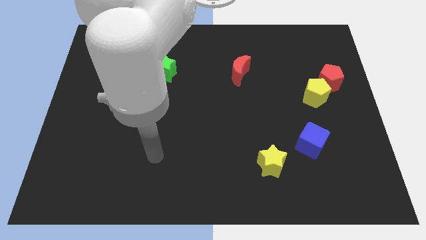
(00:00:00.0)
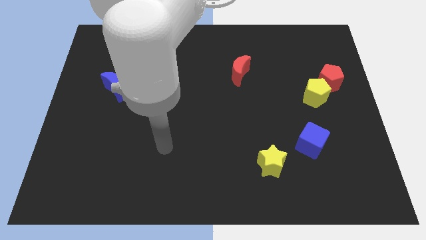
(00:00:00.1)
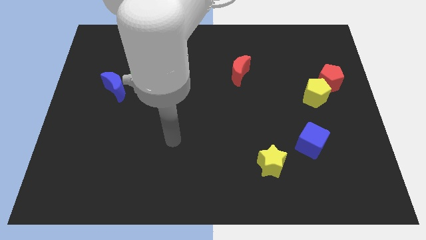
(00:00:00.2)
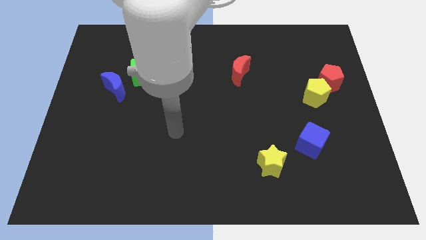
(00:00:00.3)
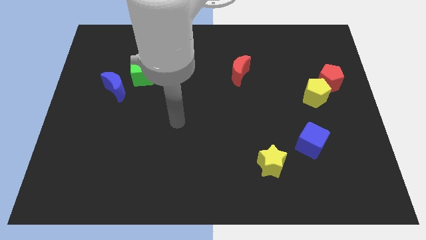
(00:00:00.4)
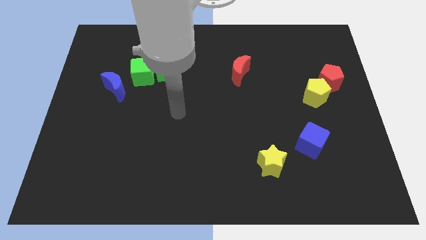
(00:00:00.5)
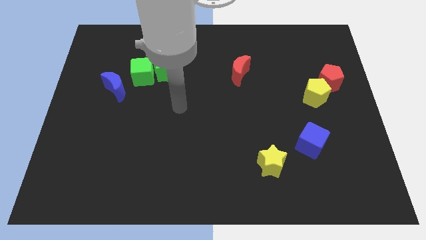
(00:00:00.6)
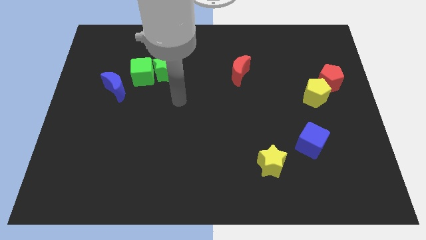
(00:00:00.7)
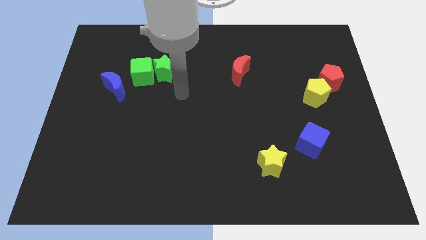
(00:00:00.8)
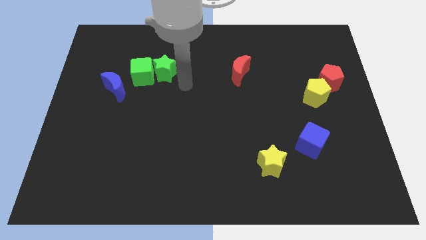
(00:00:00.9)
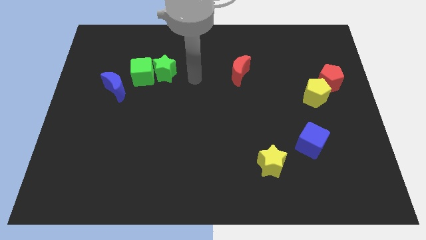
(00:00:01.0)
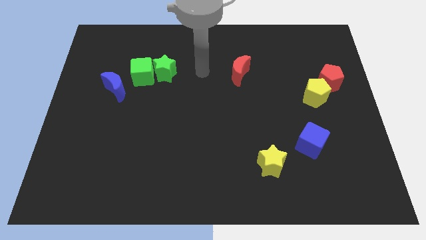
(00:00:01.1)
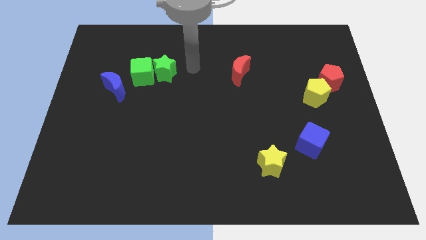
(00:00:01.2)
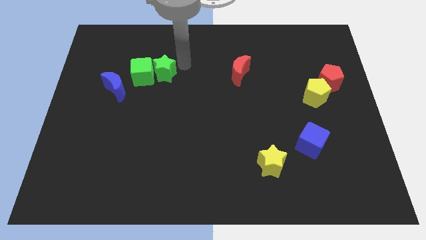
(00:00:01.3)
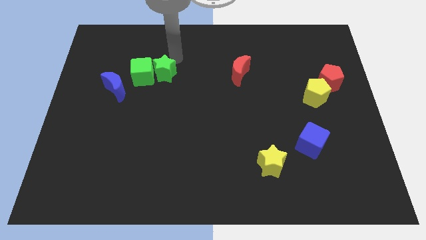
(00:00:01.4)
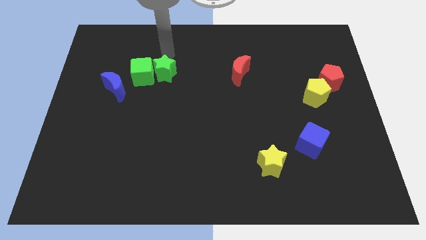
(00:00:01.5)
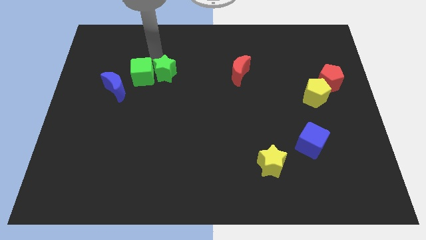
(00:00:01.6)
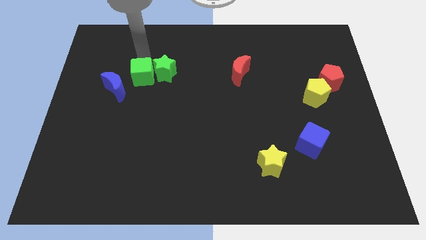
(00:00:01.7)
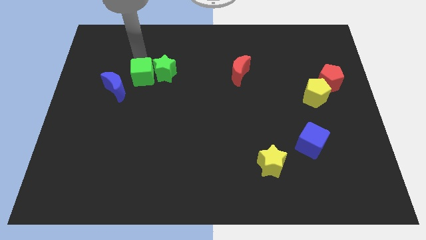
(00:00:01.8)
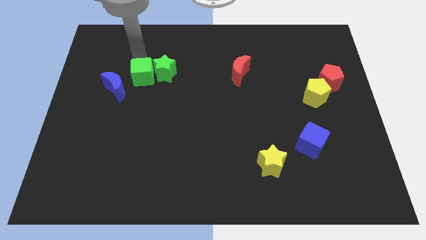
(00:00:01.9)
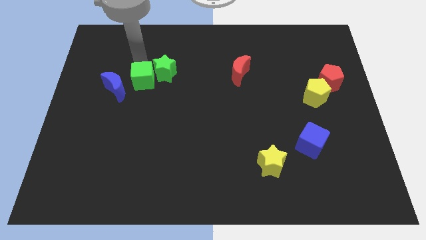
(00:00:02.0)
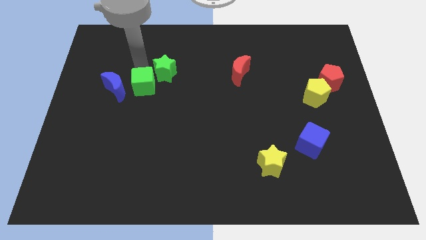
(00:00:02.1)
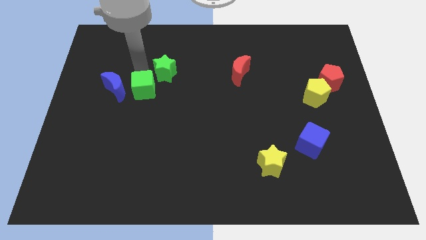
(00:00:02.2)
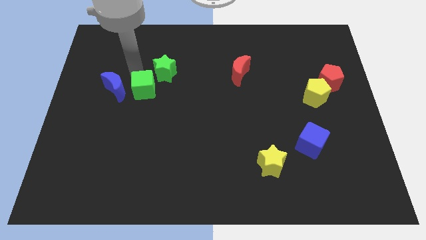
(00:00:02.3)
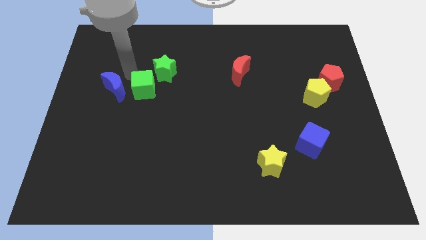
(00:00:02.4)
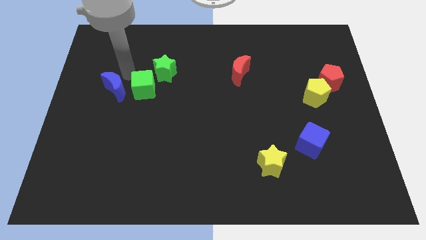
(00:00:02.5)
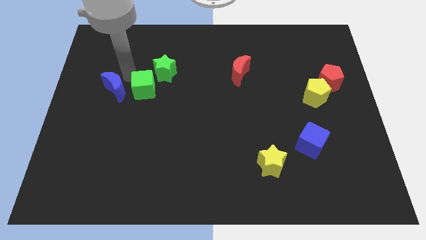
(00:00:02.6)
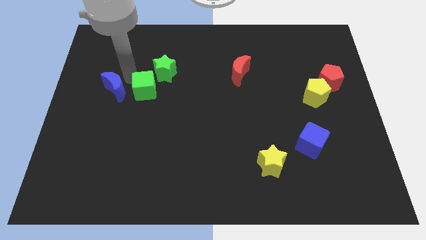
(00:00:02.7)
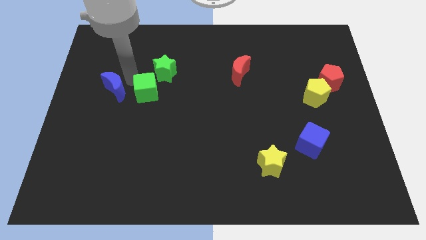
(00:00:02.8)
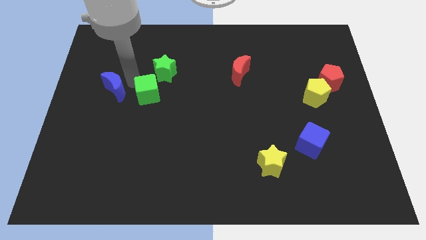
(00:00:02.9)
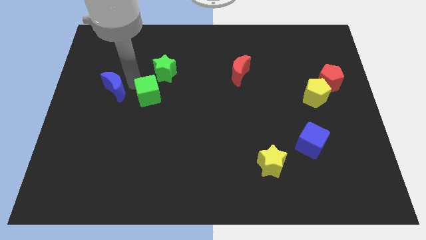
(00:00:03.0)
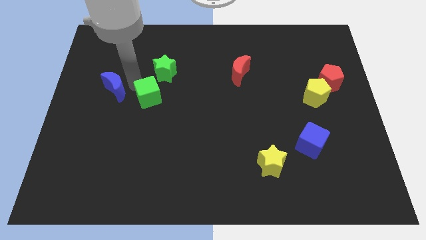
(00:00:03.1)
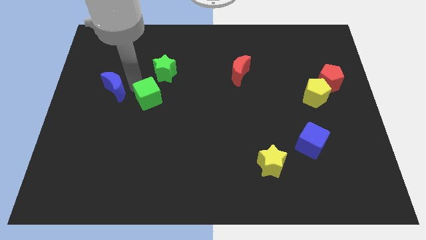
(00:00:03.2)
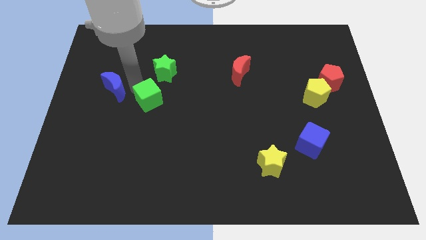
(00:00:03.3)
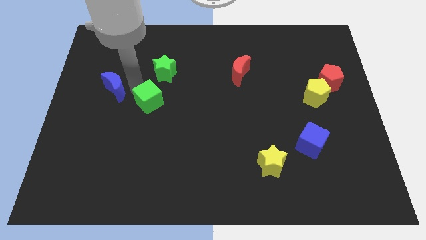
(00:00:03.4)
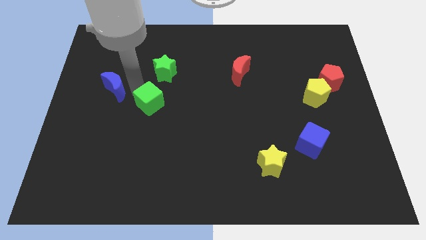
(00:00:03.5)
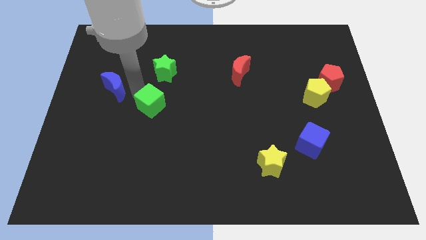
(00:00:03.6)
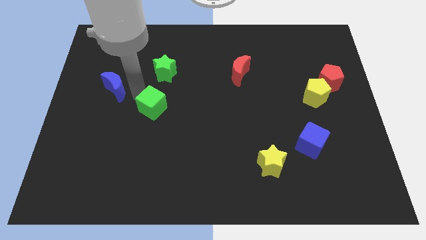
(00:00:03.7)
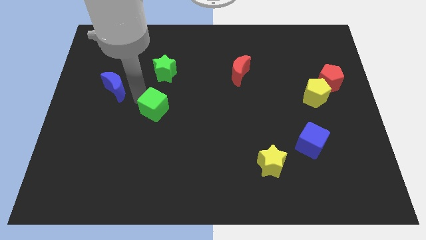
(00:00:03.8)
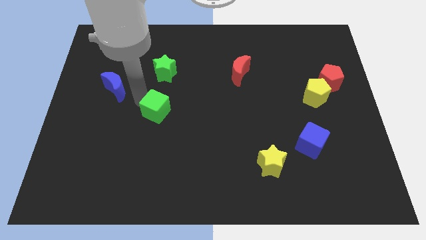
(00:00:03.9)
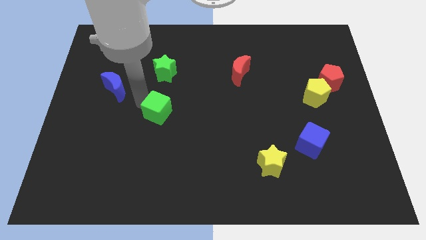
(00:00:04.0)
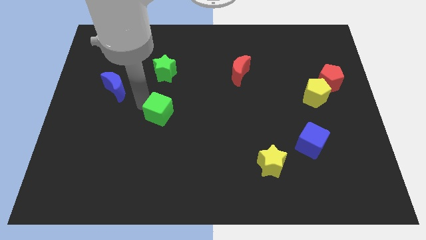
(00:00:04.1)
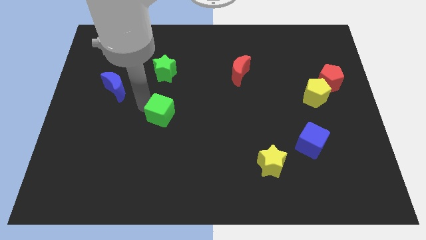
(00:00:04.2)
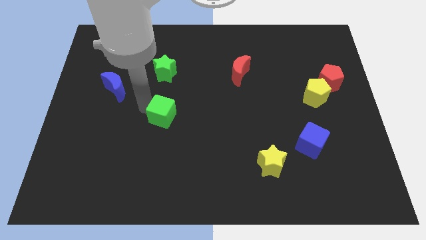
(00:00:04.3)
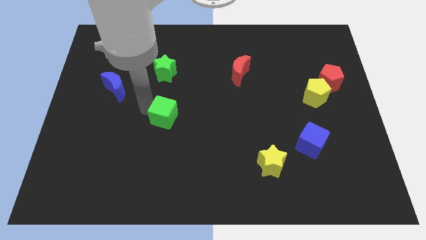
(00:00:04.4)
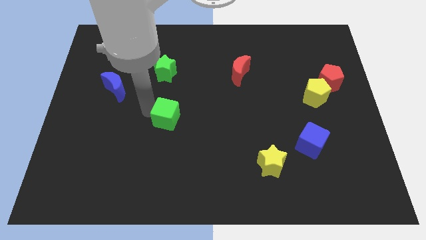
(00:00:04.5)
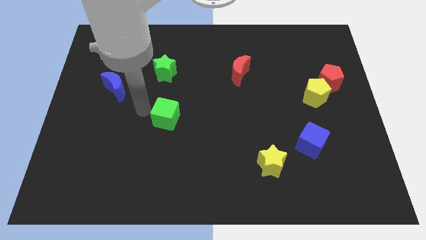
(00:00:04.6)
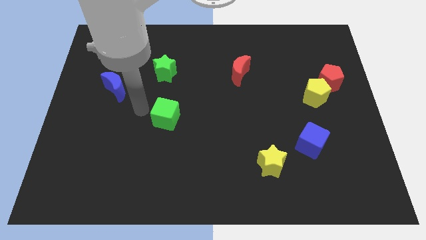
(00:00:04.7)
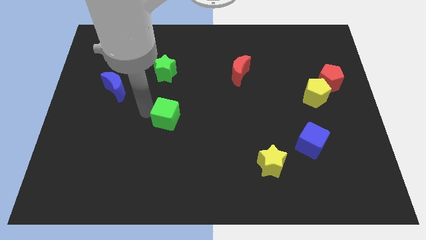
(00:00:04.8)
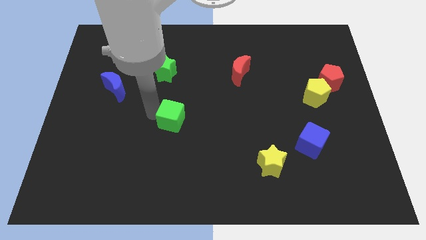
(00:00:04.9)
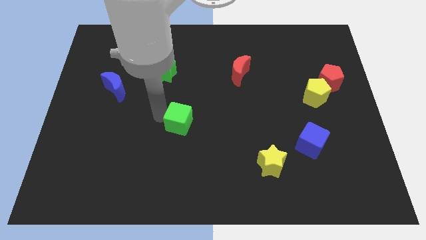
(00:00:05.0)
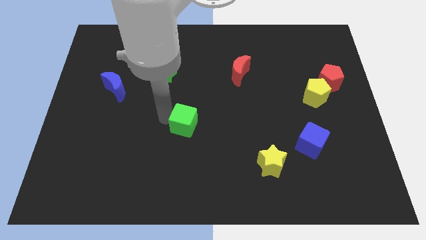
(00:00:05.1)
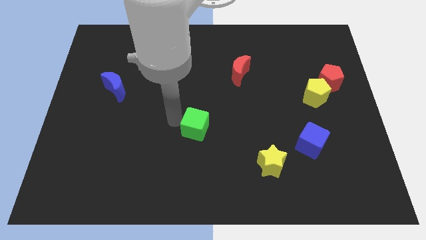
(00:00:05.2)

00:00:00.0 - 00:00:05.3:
move the green cube down and to the right diagonally

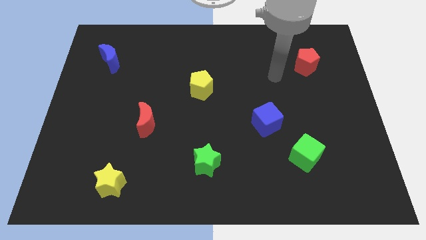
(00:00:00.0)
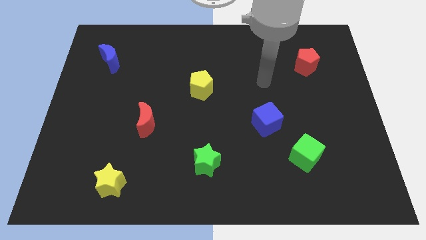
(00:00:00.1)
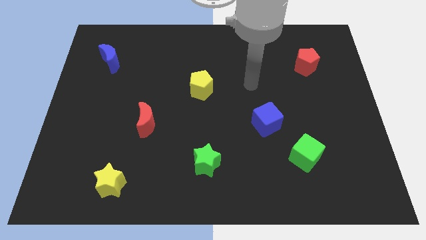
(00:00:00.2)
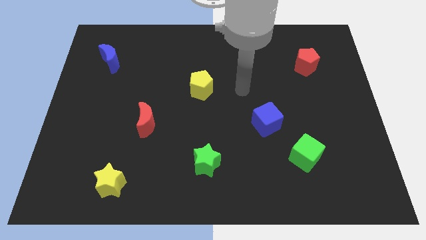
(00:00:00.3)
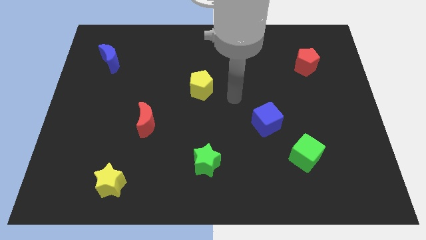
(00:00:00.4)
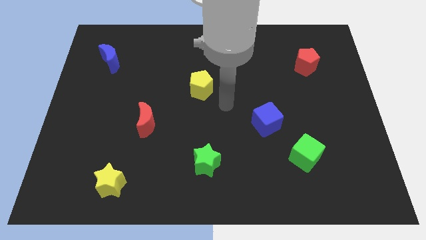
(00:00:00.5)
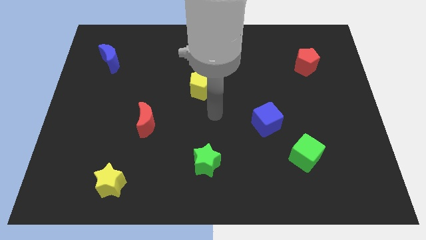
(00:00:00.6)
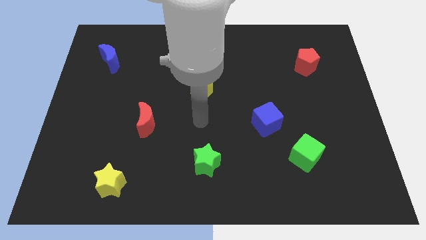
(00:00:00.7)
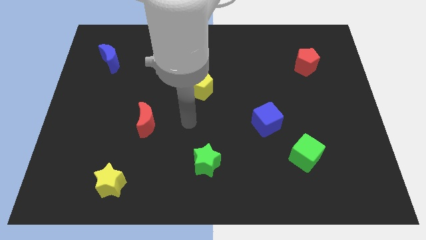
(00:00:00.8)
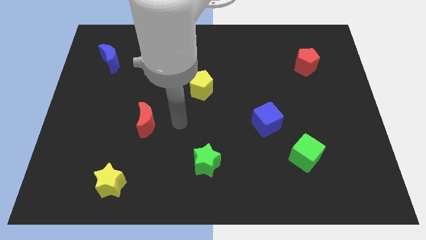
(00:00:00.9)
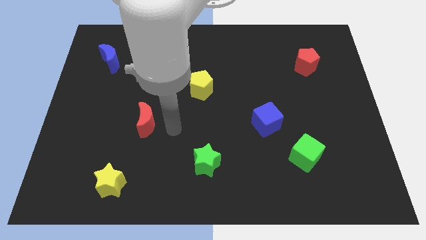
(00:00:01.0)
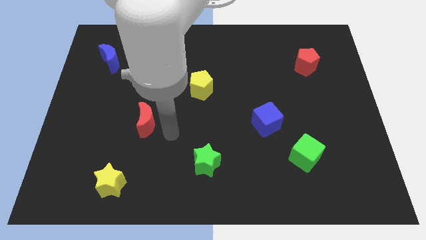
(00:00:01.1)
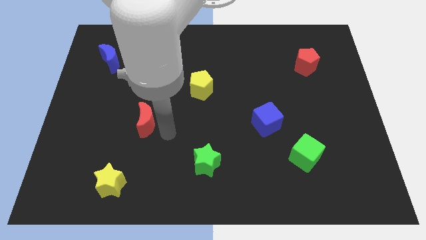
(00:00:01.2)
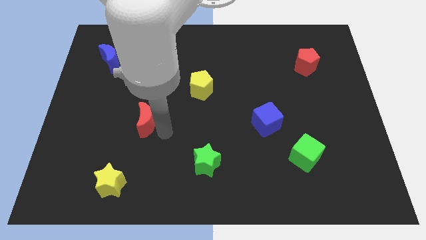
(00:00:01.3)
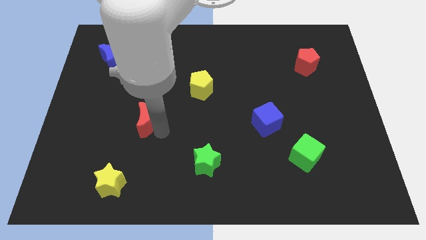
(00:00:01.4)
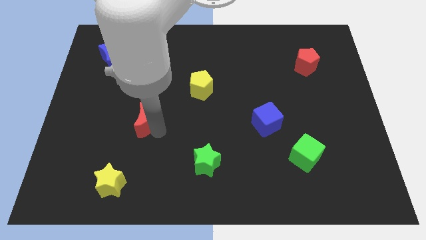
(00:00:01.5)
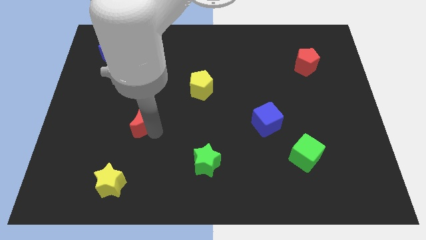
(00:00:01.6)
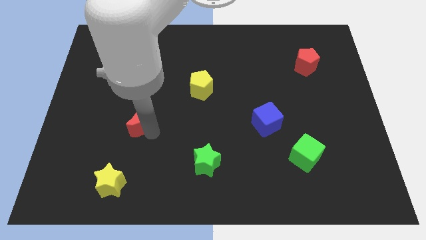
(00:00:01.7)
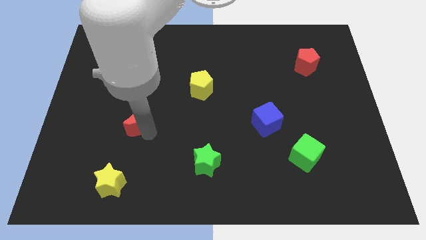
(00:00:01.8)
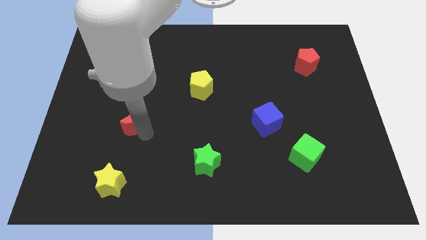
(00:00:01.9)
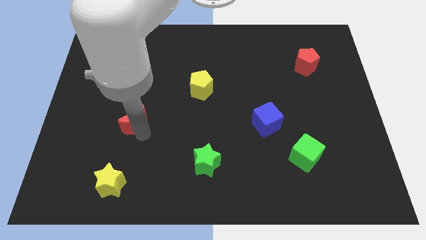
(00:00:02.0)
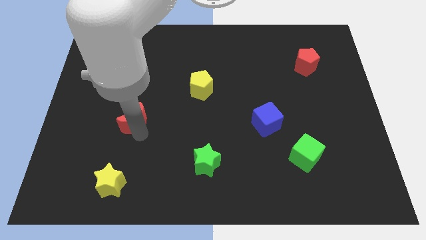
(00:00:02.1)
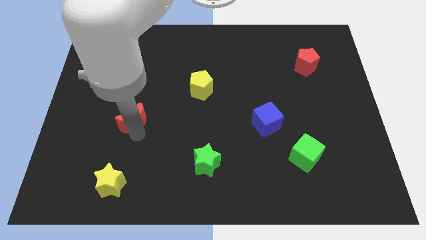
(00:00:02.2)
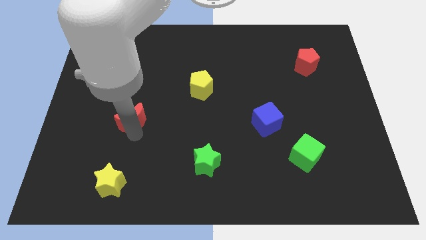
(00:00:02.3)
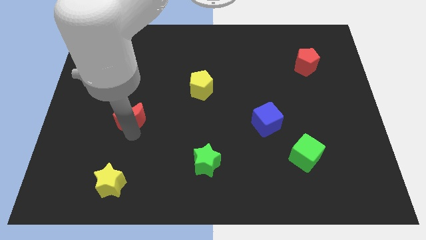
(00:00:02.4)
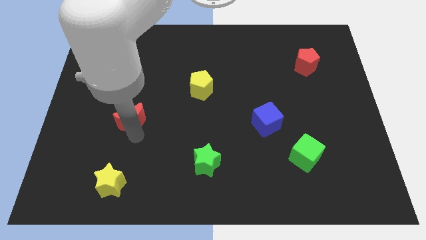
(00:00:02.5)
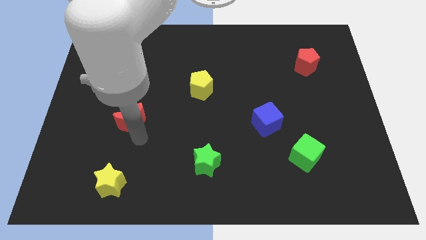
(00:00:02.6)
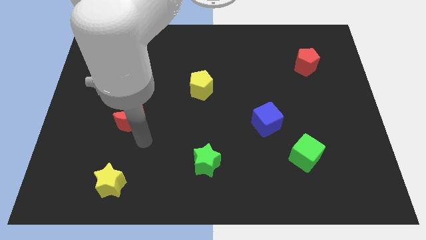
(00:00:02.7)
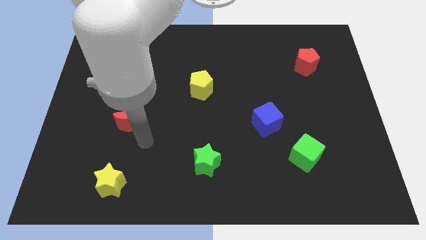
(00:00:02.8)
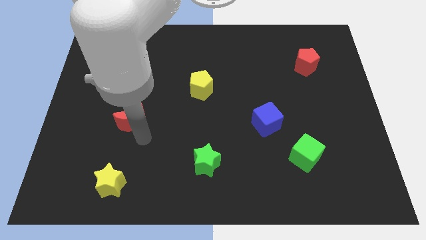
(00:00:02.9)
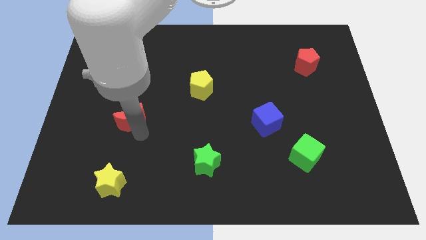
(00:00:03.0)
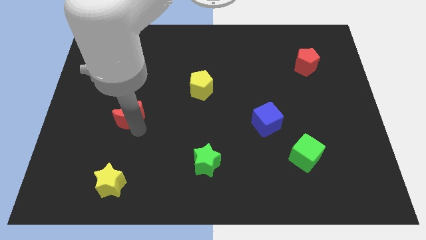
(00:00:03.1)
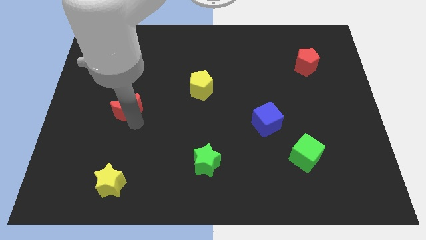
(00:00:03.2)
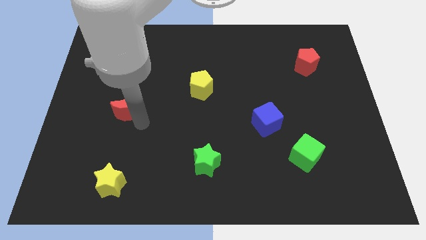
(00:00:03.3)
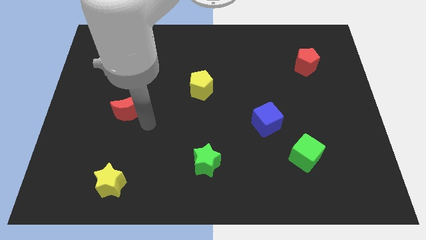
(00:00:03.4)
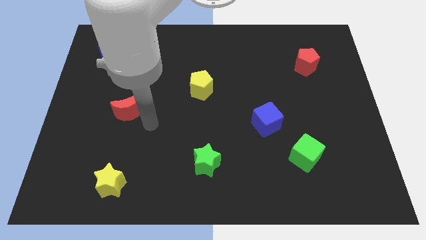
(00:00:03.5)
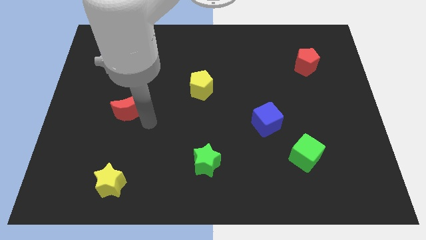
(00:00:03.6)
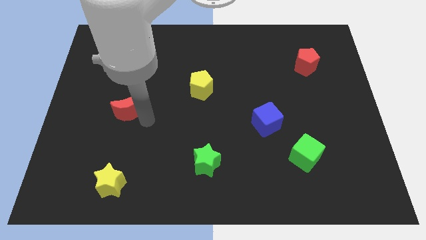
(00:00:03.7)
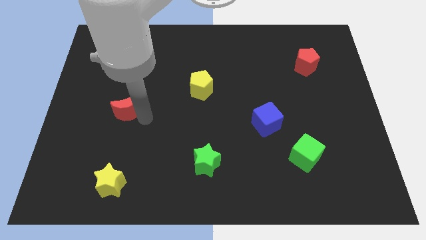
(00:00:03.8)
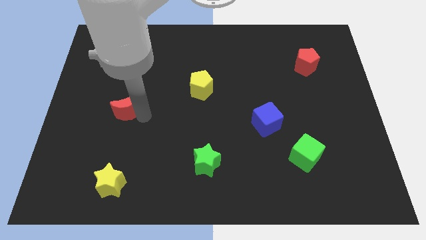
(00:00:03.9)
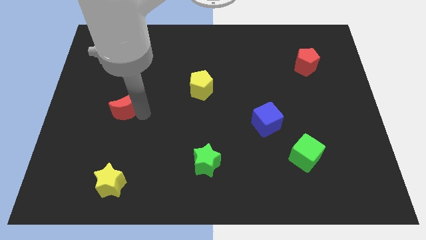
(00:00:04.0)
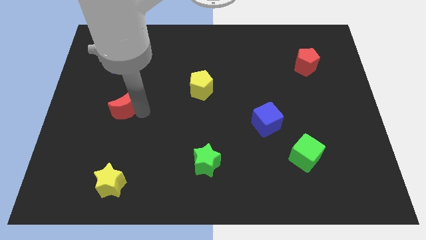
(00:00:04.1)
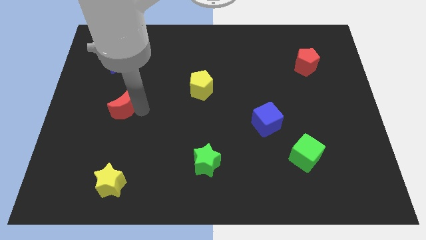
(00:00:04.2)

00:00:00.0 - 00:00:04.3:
slide the red moon a bit up and to the left
